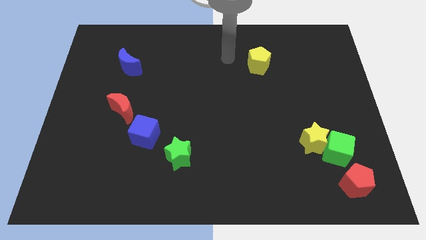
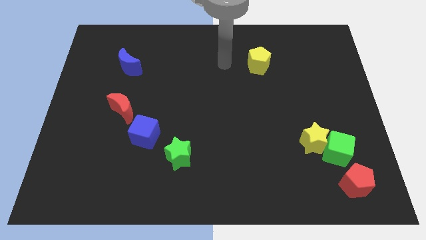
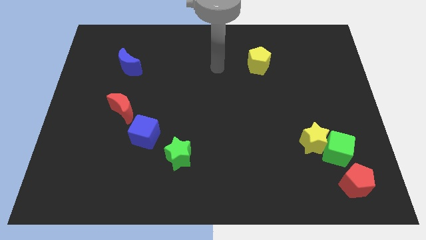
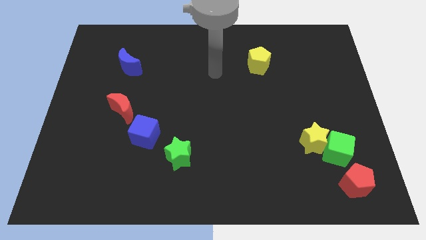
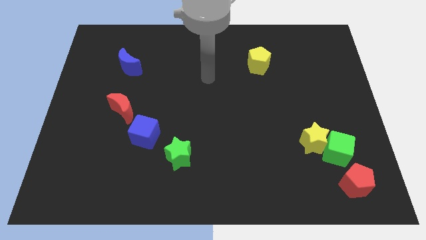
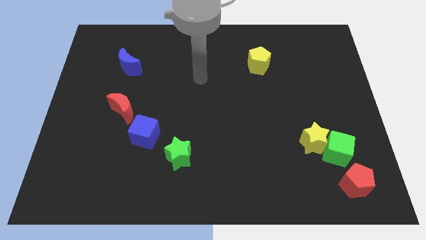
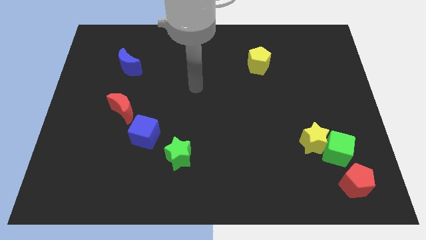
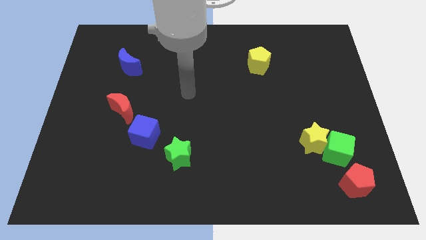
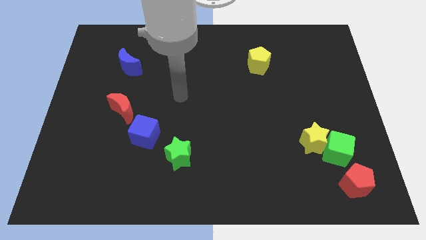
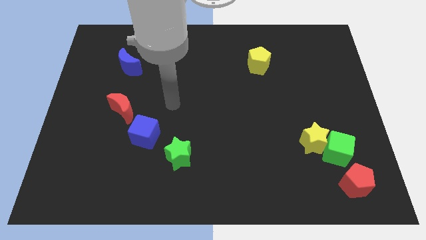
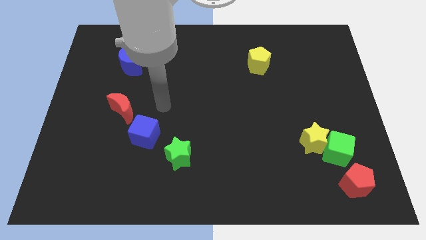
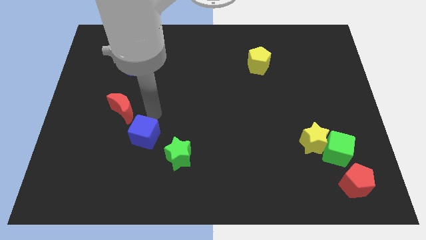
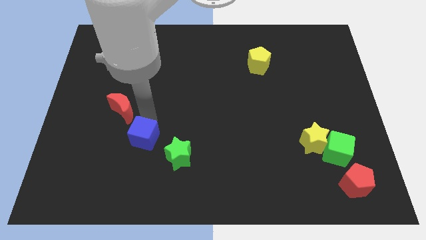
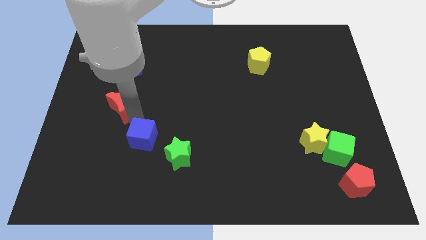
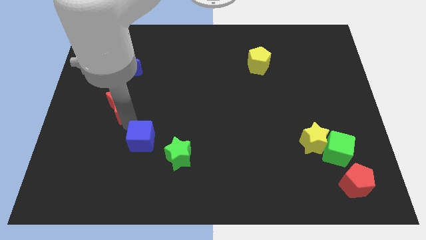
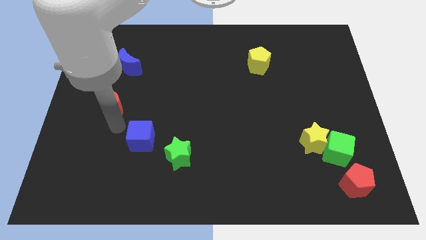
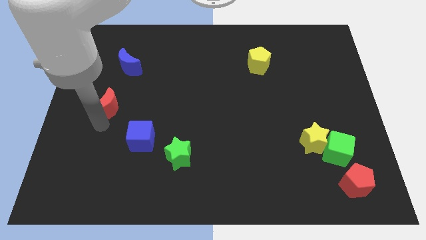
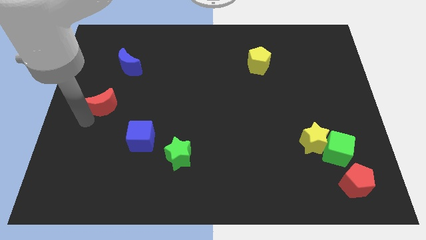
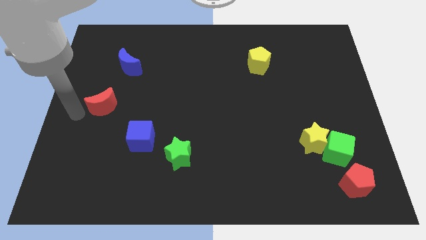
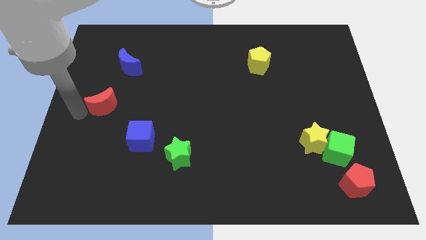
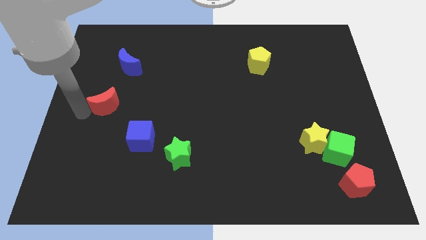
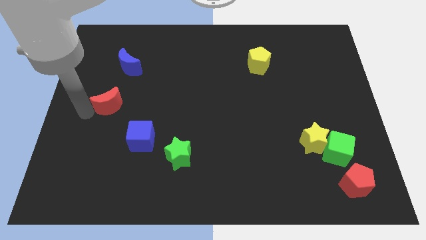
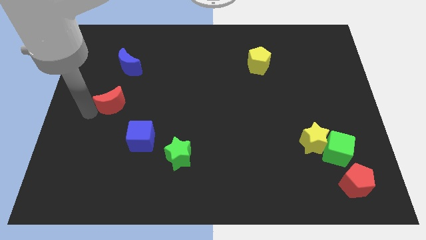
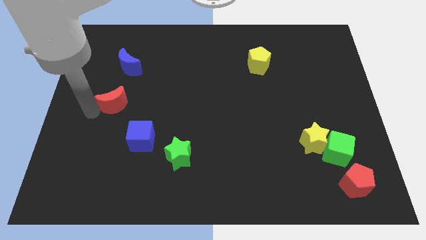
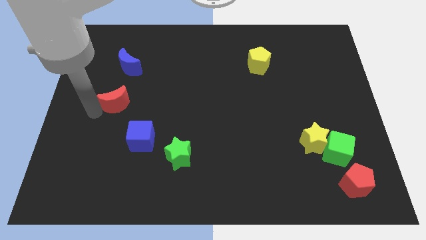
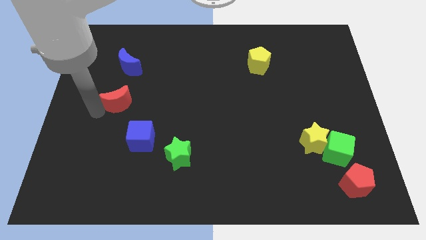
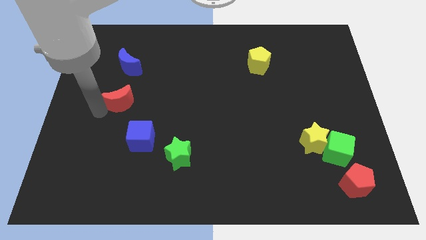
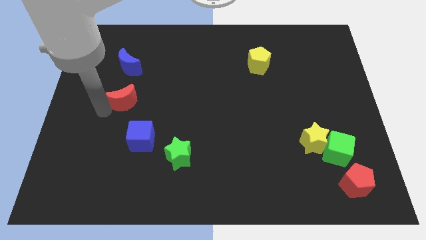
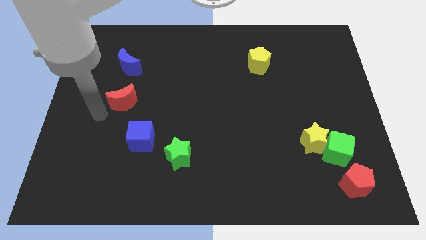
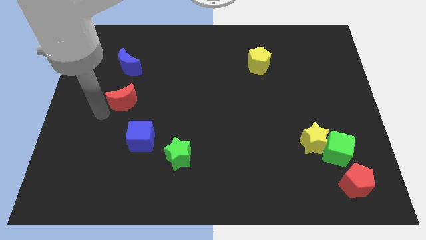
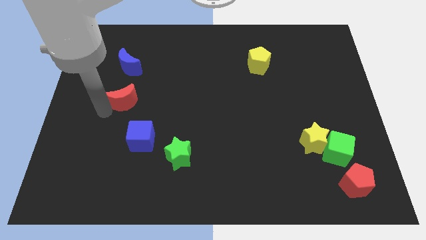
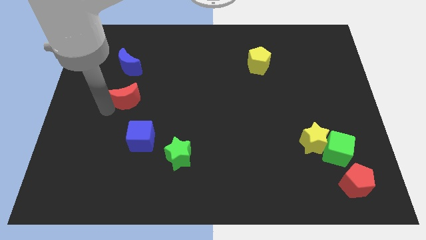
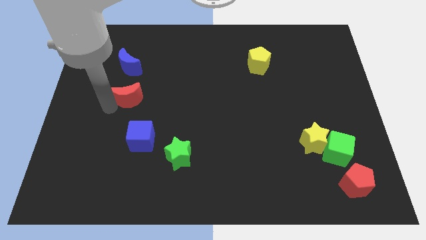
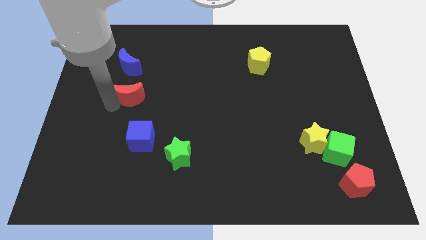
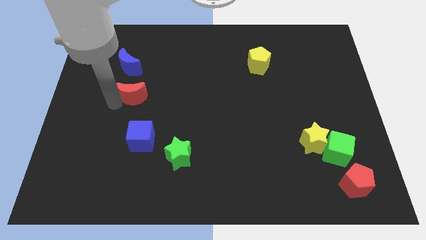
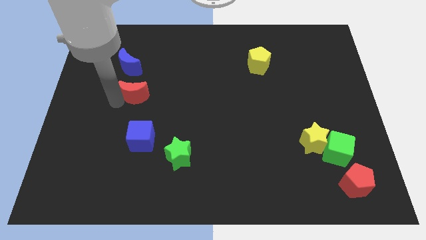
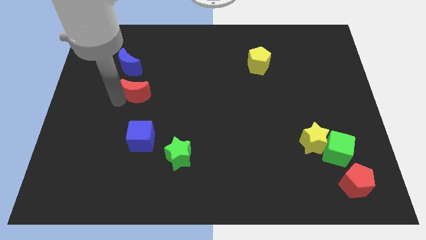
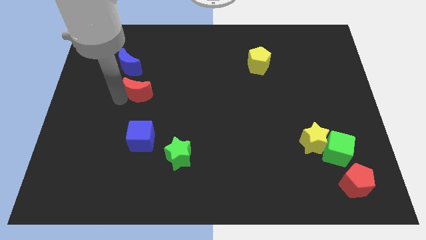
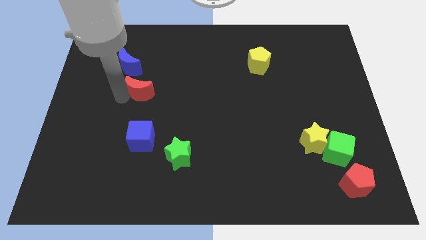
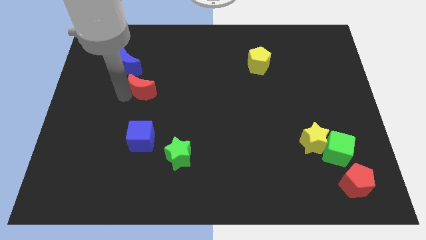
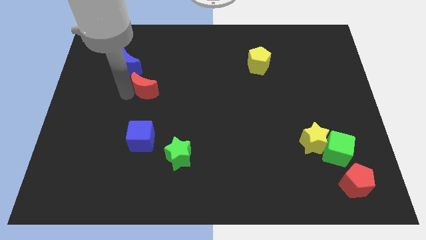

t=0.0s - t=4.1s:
slightly push the red moon upwards and right diagonally

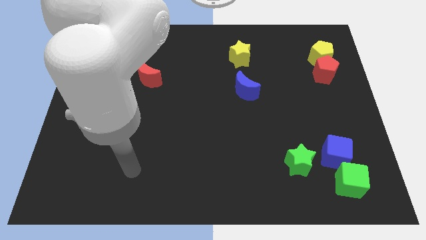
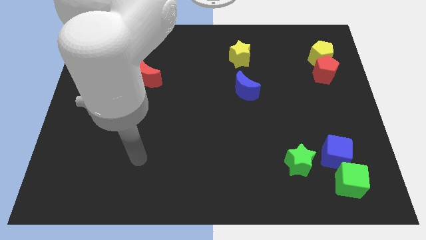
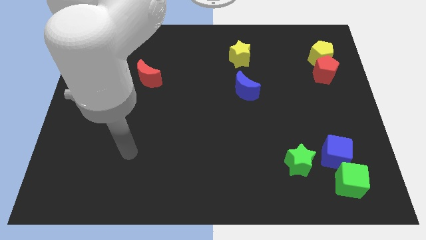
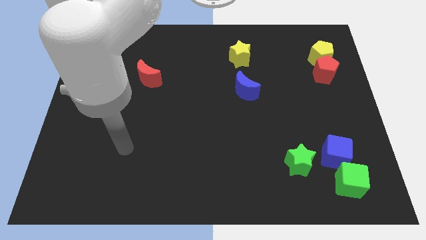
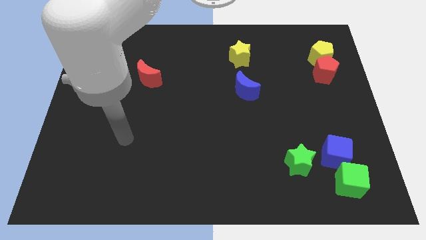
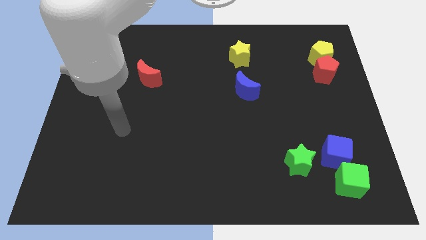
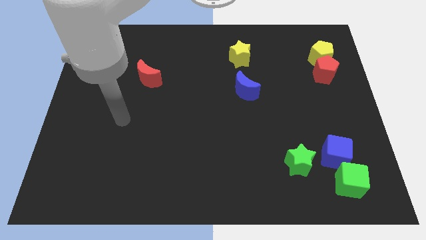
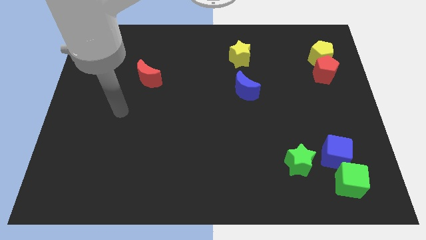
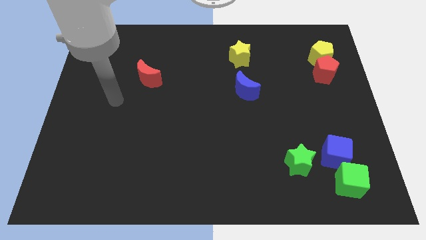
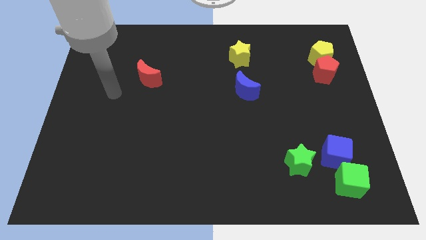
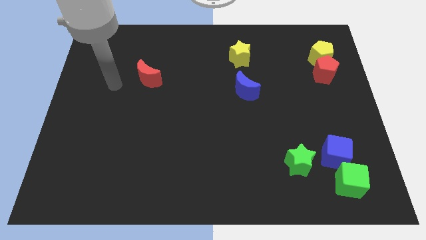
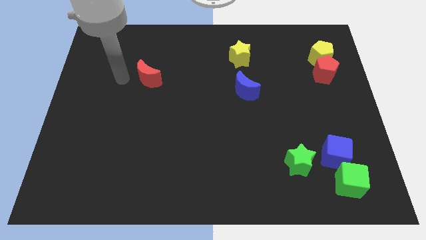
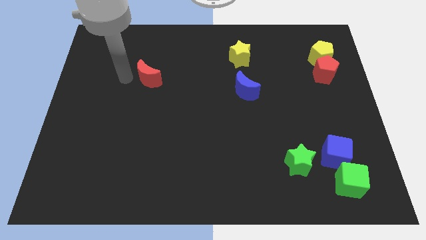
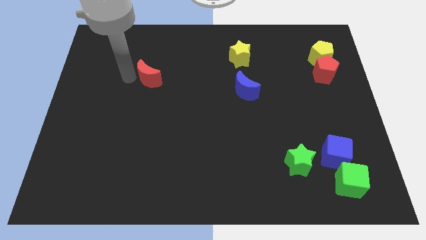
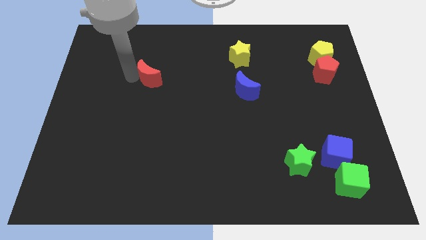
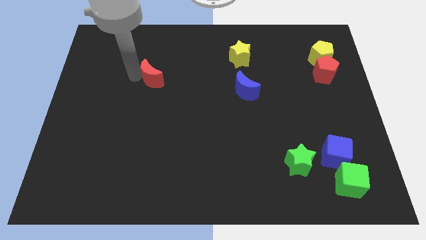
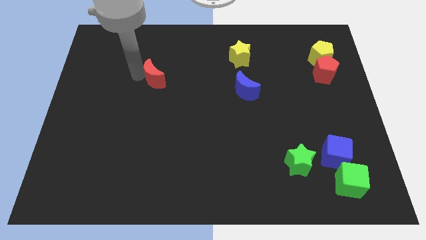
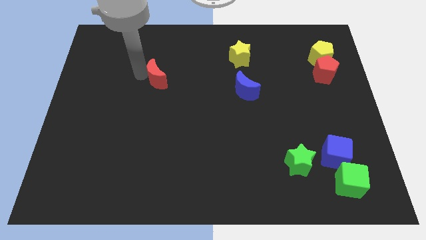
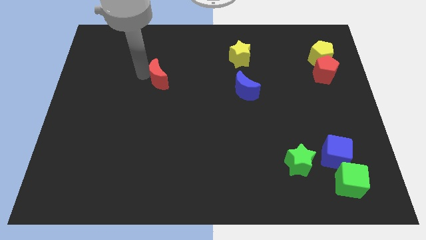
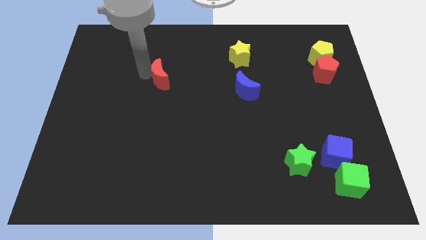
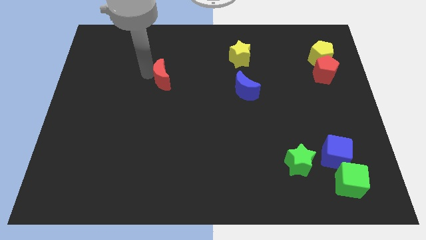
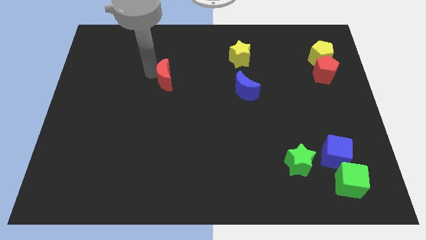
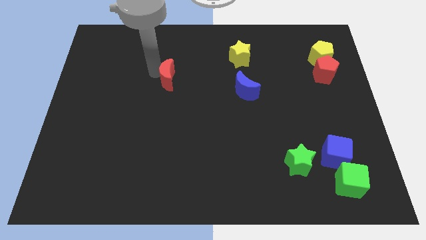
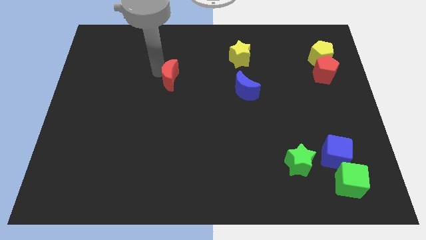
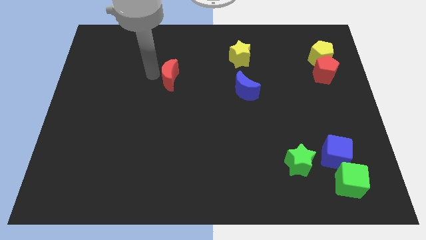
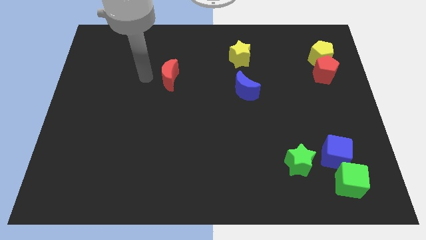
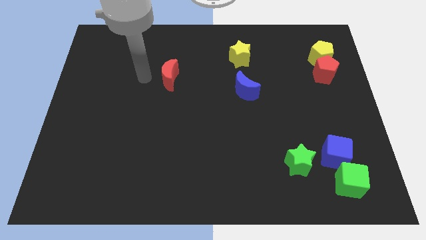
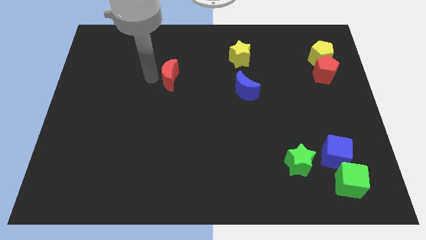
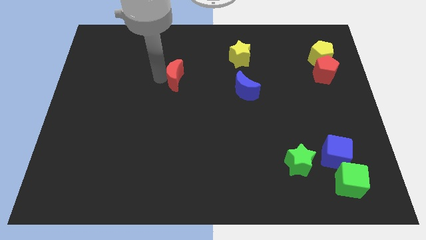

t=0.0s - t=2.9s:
slide the red moon right a little

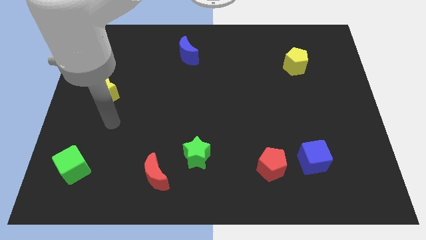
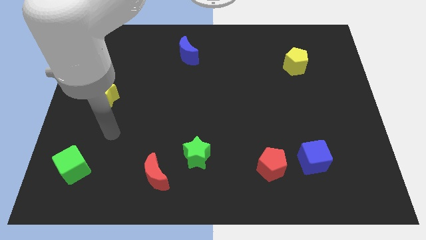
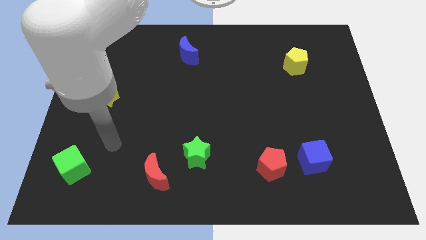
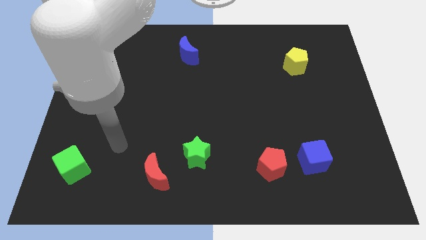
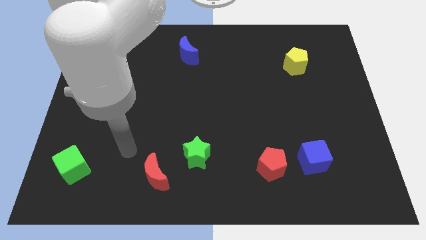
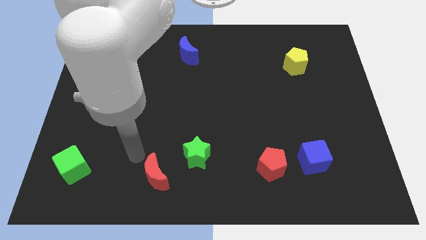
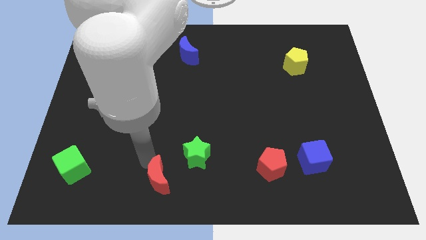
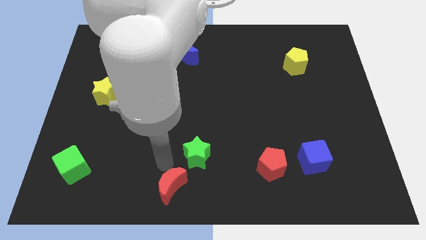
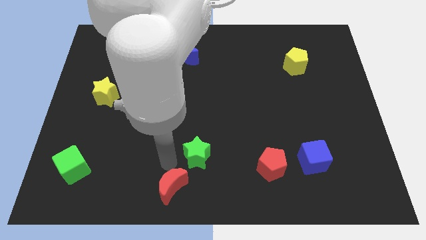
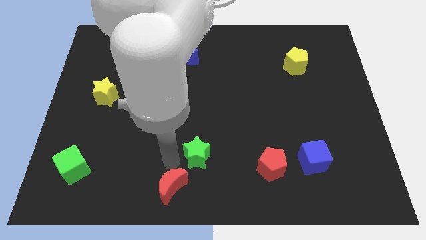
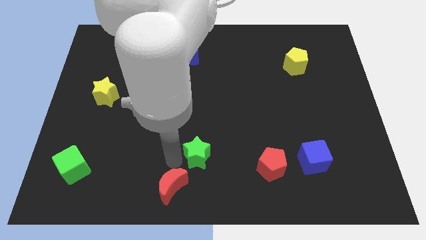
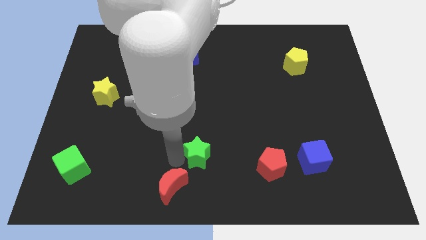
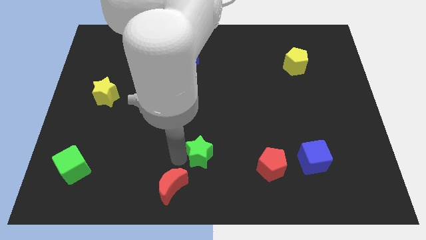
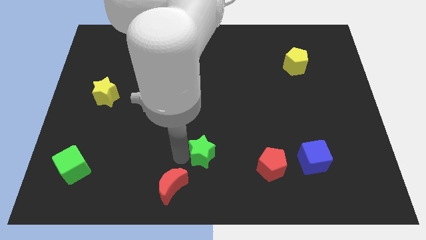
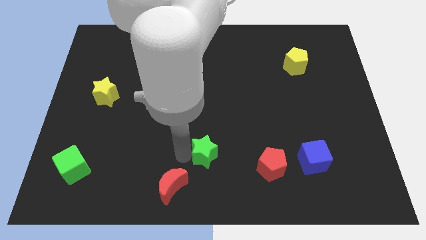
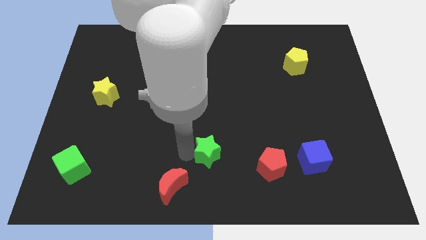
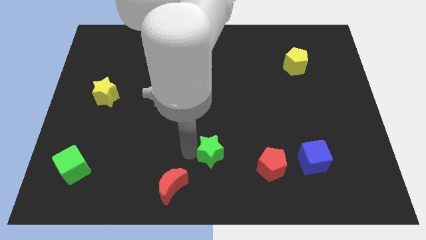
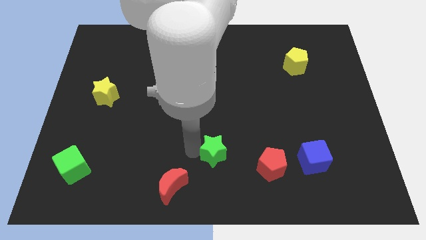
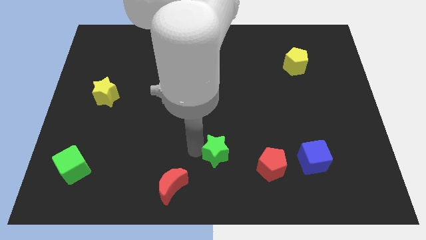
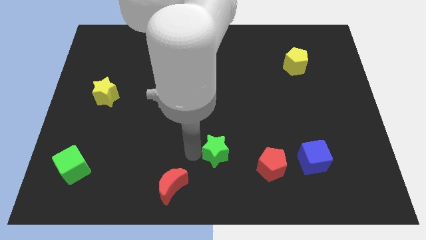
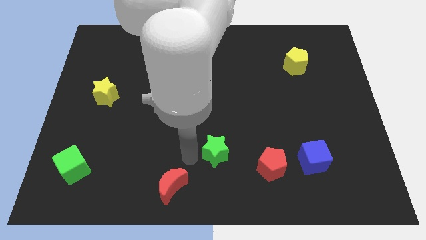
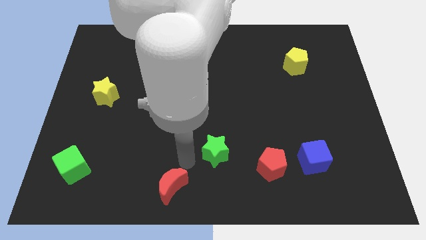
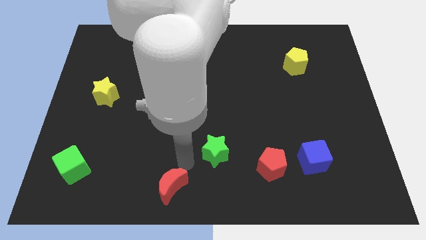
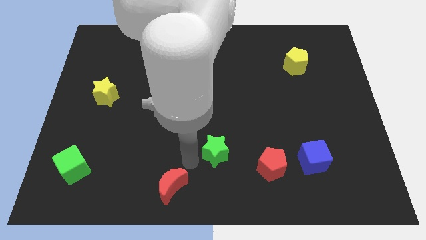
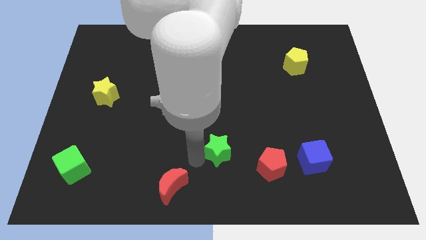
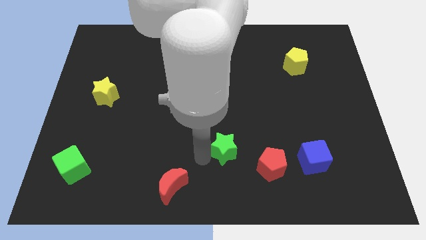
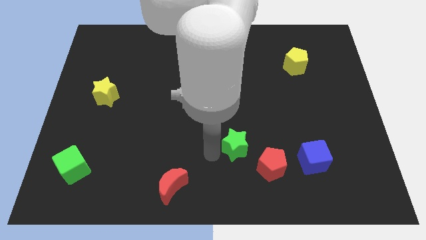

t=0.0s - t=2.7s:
slightly move the green star right
